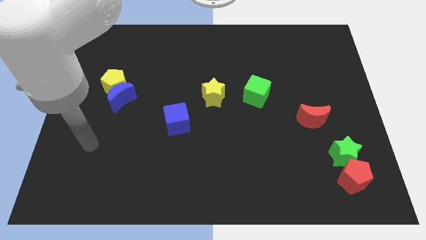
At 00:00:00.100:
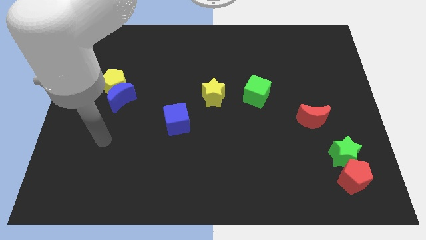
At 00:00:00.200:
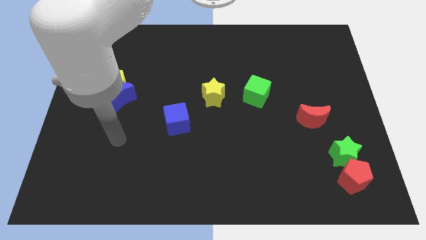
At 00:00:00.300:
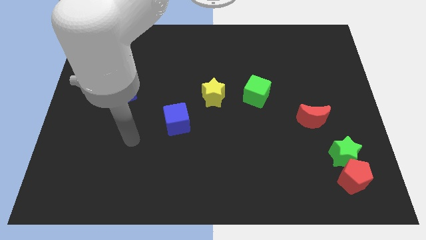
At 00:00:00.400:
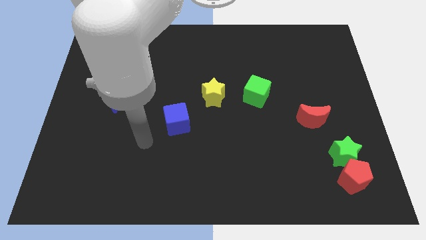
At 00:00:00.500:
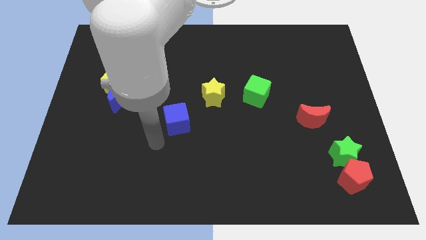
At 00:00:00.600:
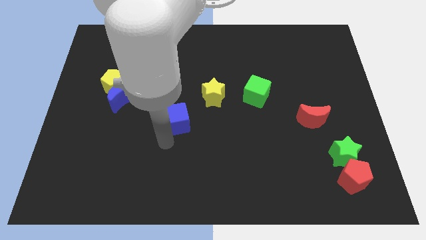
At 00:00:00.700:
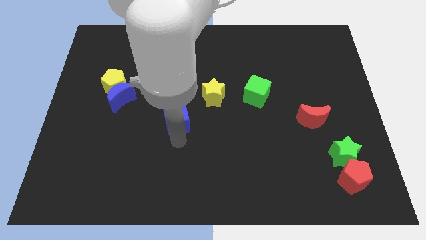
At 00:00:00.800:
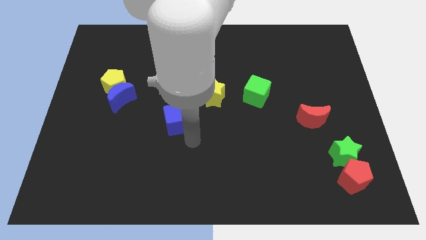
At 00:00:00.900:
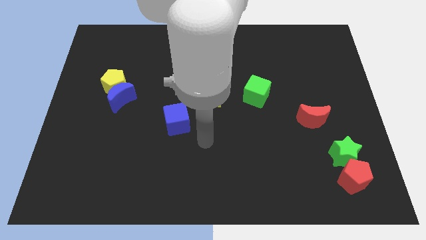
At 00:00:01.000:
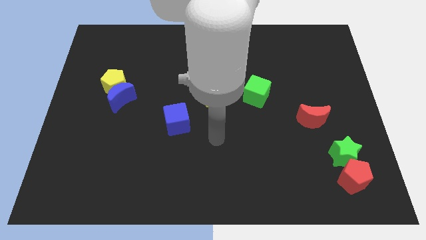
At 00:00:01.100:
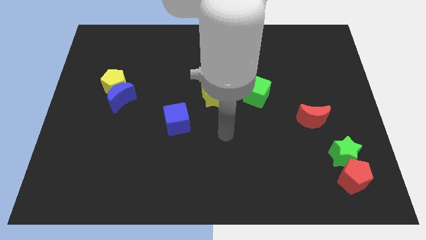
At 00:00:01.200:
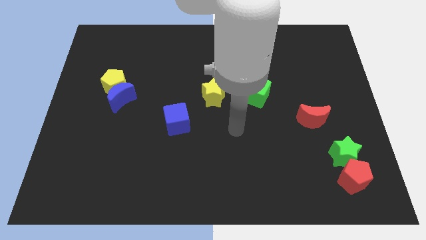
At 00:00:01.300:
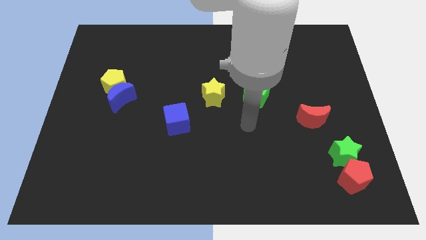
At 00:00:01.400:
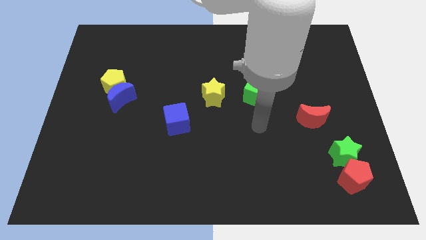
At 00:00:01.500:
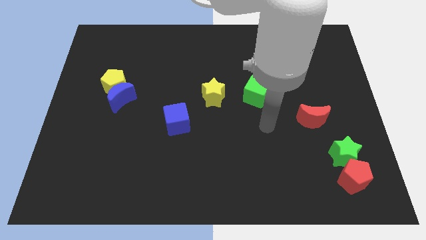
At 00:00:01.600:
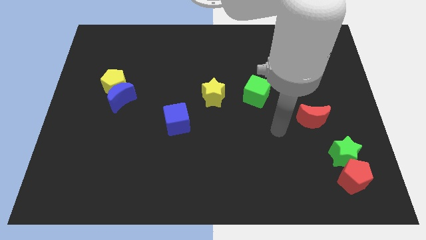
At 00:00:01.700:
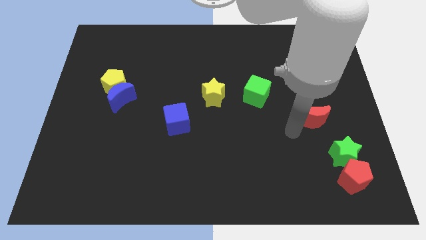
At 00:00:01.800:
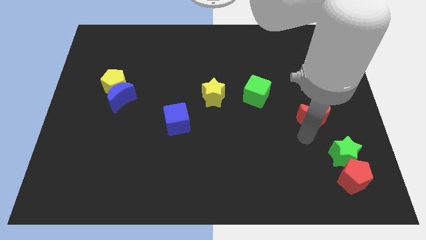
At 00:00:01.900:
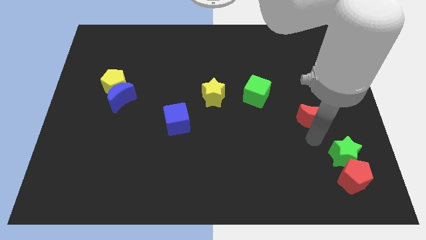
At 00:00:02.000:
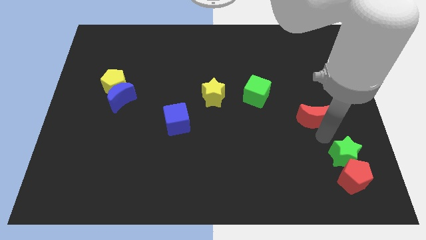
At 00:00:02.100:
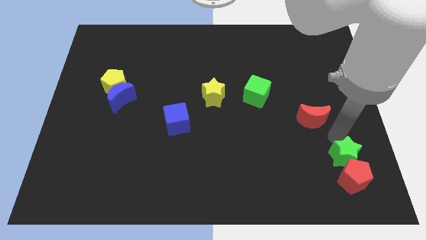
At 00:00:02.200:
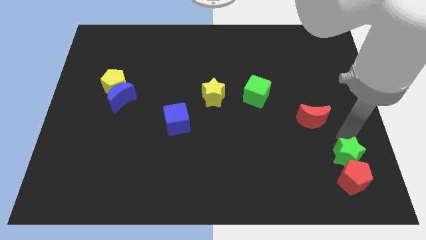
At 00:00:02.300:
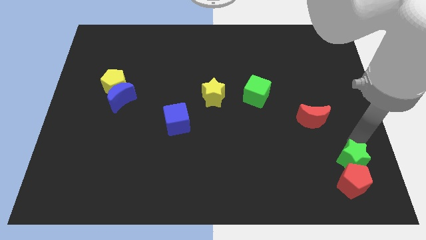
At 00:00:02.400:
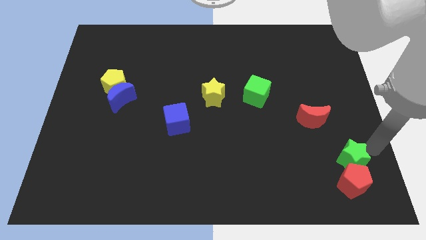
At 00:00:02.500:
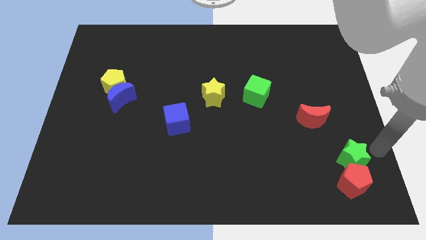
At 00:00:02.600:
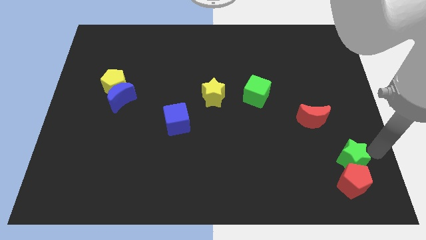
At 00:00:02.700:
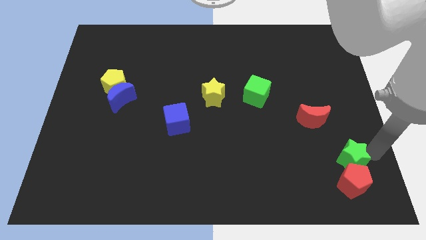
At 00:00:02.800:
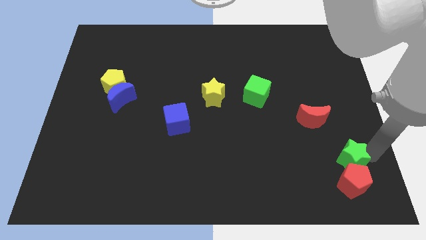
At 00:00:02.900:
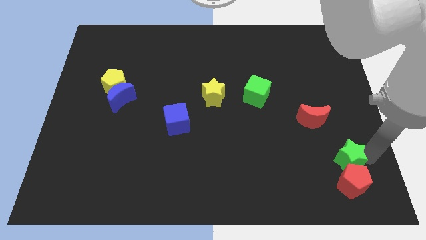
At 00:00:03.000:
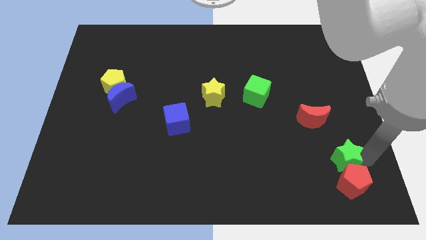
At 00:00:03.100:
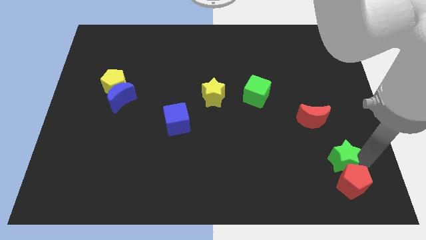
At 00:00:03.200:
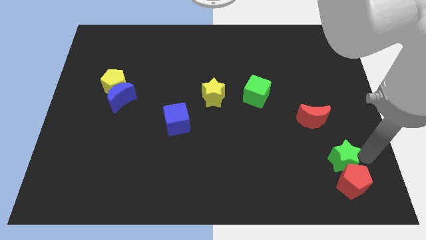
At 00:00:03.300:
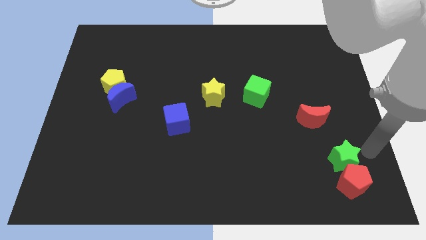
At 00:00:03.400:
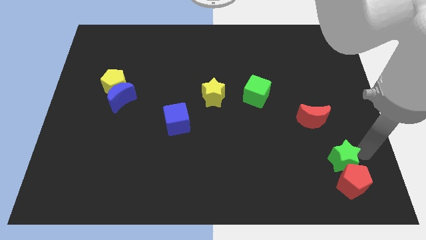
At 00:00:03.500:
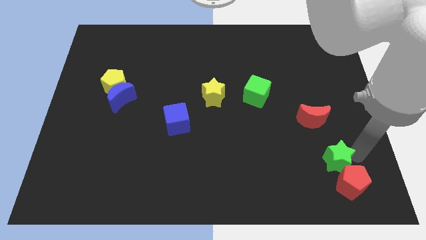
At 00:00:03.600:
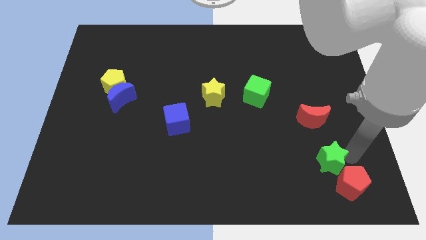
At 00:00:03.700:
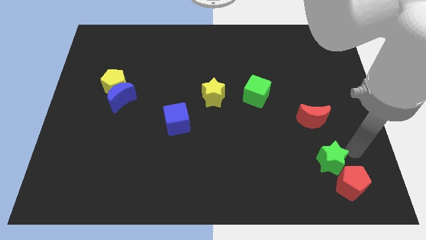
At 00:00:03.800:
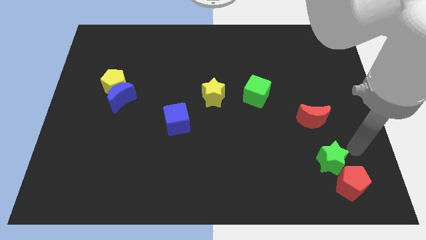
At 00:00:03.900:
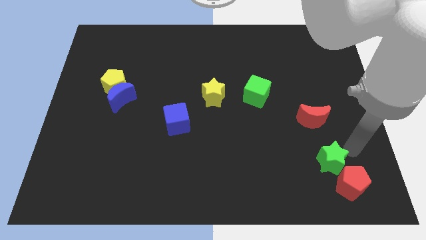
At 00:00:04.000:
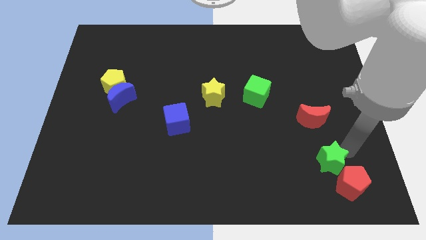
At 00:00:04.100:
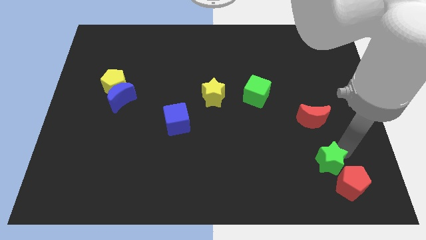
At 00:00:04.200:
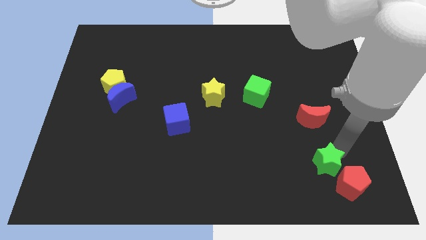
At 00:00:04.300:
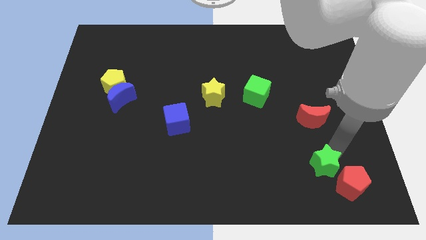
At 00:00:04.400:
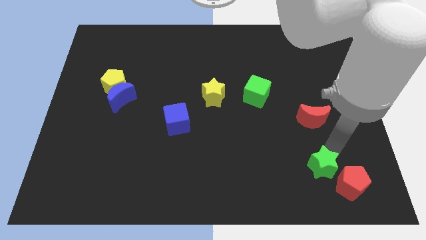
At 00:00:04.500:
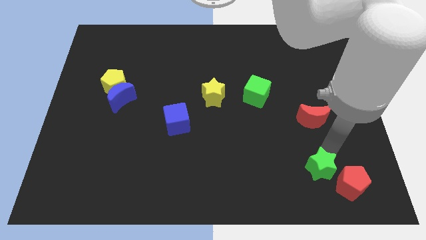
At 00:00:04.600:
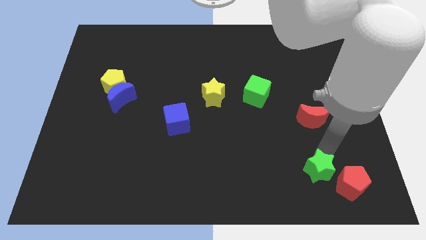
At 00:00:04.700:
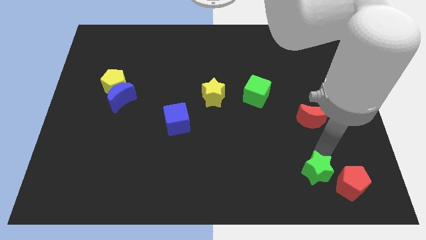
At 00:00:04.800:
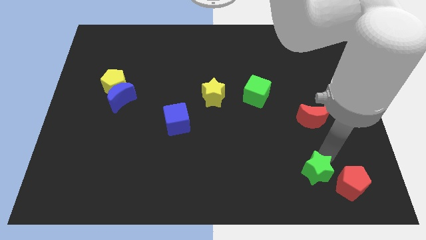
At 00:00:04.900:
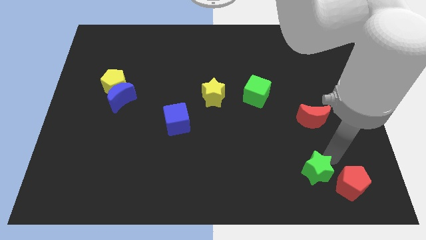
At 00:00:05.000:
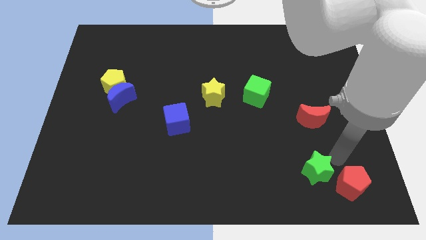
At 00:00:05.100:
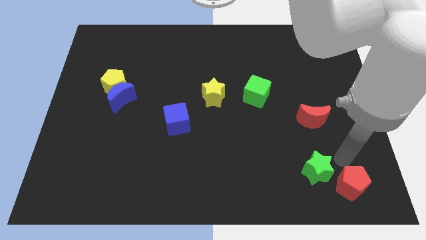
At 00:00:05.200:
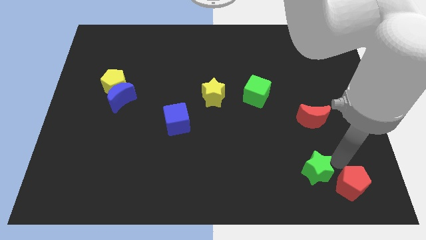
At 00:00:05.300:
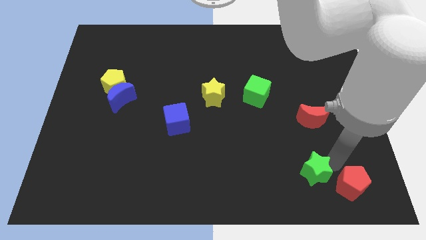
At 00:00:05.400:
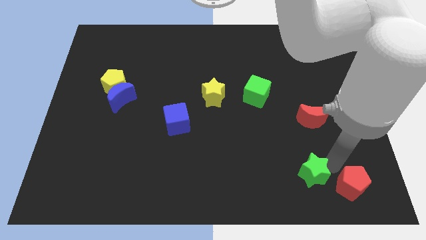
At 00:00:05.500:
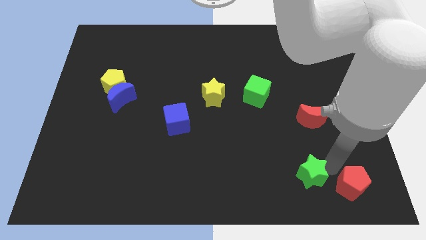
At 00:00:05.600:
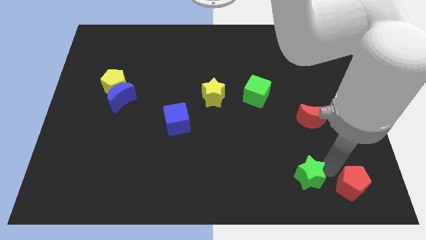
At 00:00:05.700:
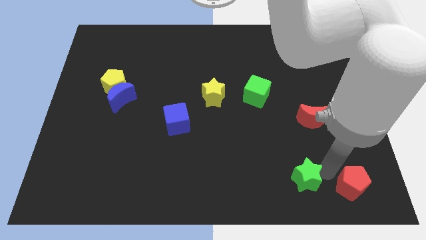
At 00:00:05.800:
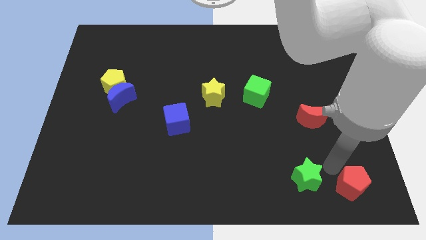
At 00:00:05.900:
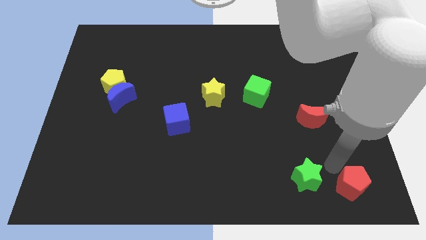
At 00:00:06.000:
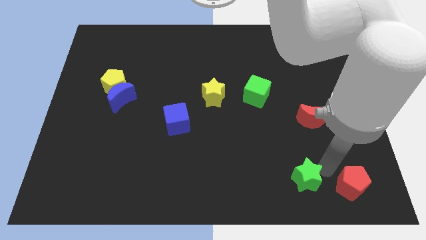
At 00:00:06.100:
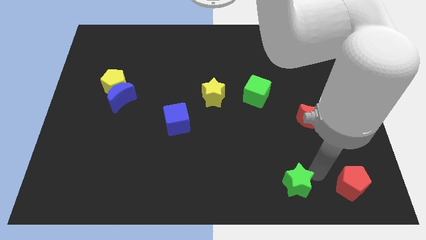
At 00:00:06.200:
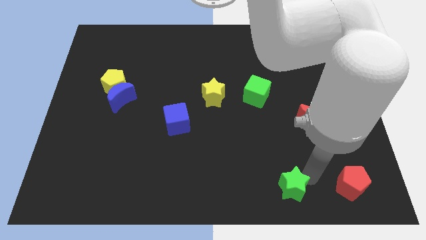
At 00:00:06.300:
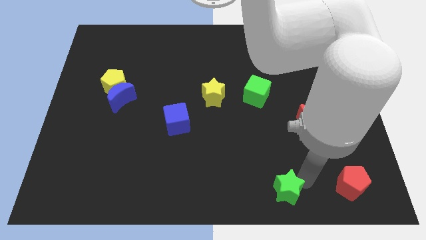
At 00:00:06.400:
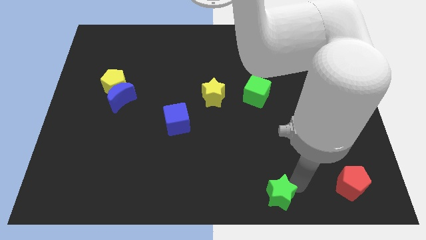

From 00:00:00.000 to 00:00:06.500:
put the green star to the bottom side

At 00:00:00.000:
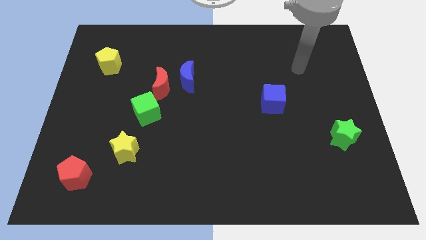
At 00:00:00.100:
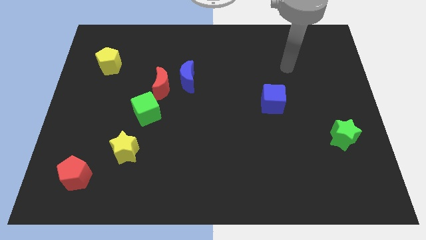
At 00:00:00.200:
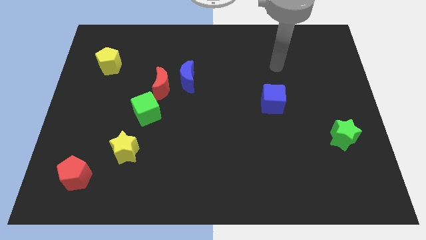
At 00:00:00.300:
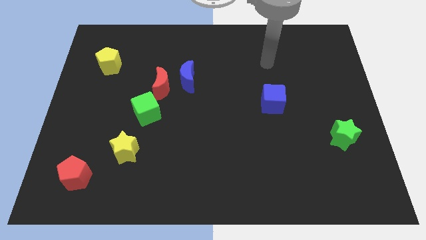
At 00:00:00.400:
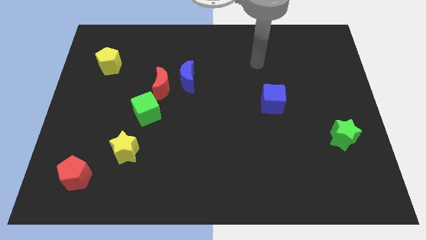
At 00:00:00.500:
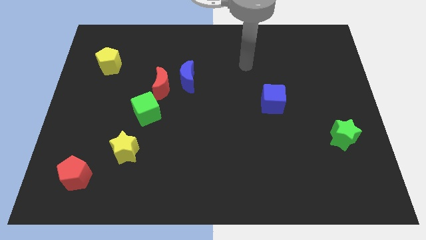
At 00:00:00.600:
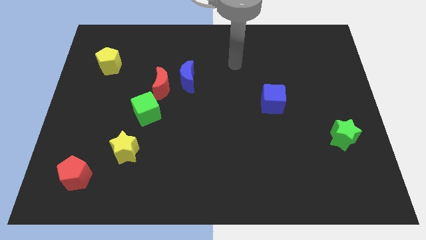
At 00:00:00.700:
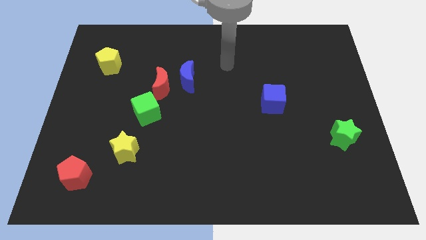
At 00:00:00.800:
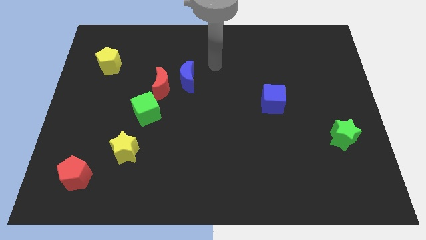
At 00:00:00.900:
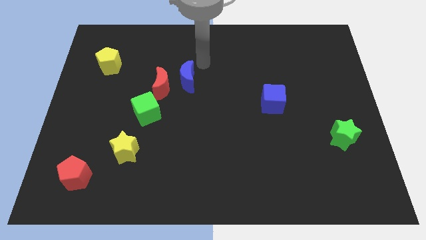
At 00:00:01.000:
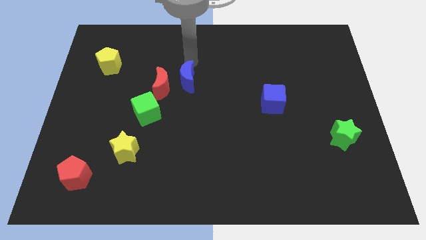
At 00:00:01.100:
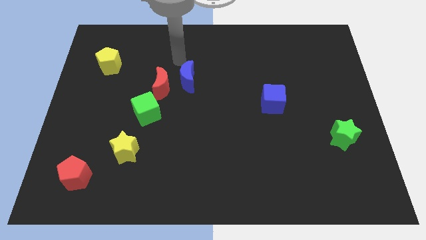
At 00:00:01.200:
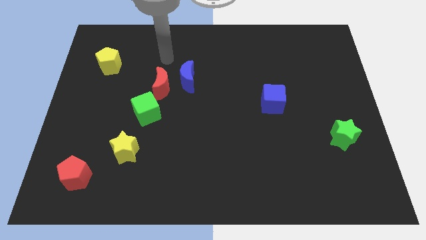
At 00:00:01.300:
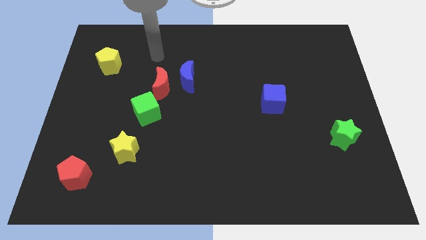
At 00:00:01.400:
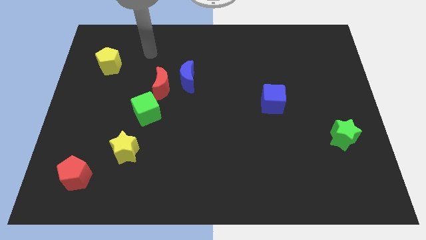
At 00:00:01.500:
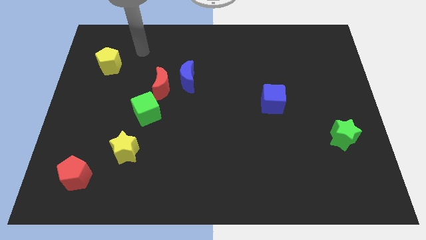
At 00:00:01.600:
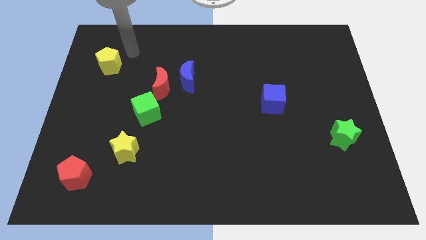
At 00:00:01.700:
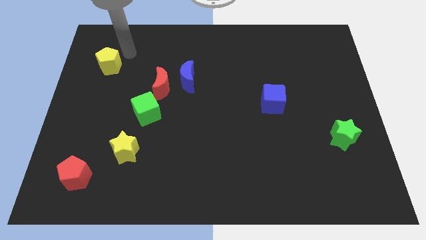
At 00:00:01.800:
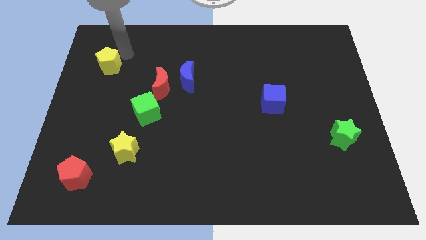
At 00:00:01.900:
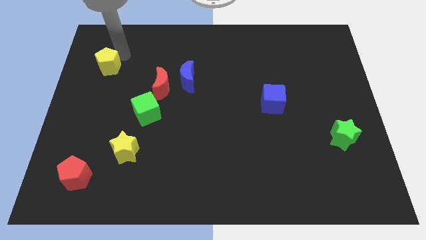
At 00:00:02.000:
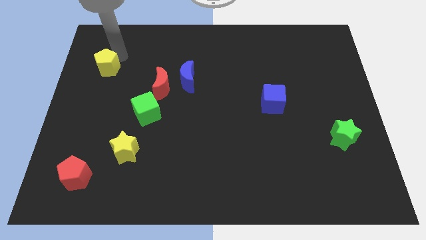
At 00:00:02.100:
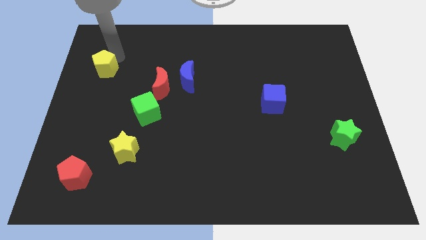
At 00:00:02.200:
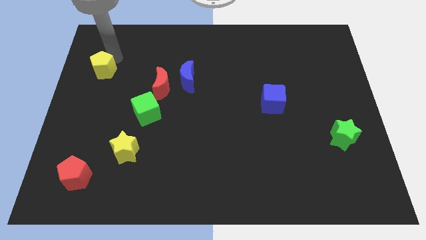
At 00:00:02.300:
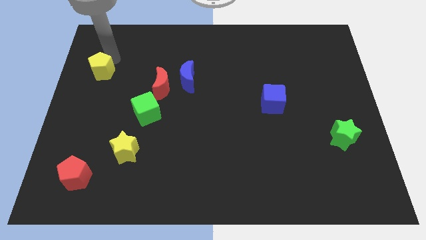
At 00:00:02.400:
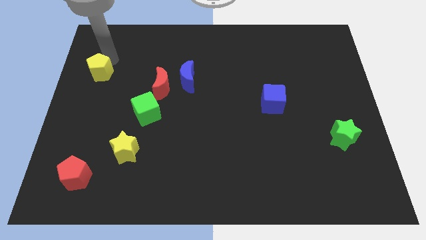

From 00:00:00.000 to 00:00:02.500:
push the yellow pentagon to the left side of the board
